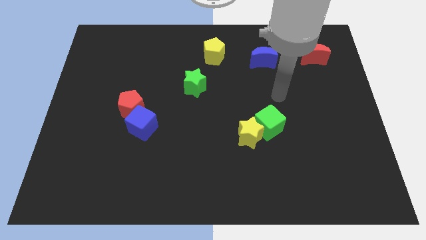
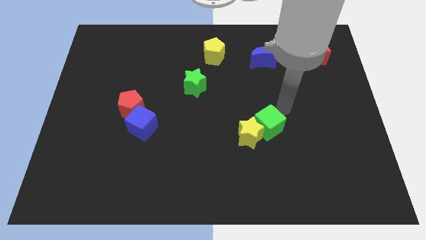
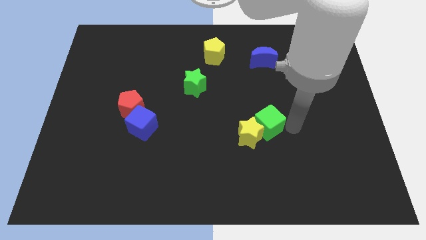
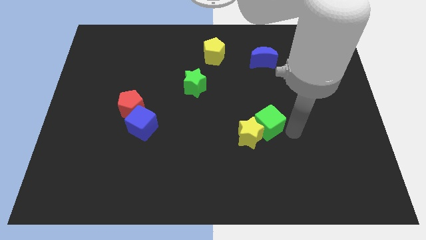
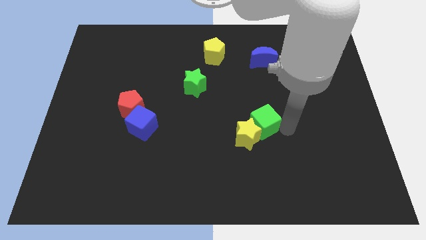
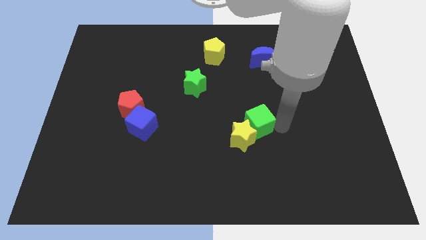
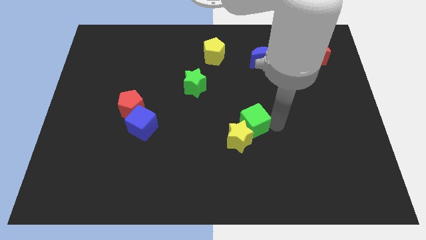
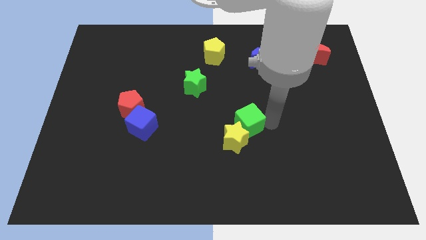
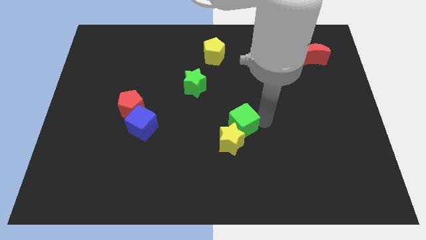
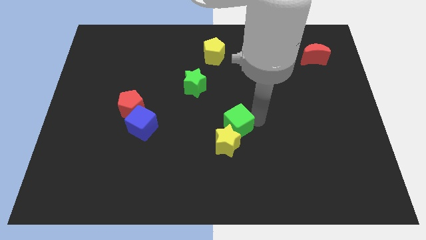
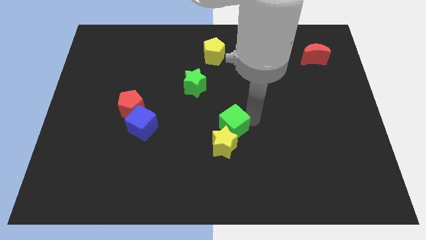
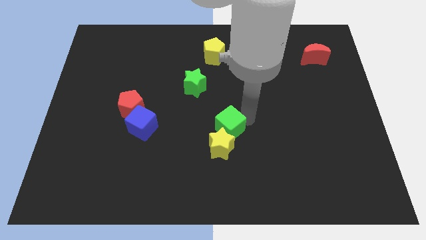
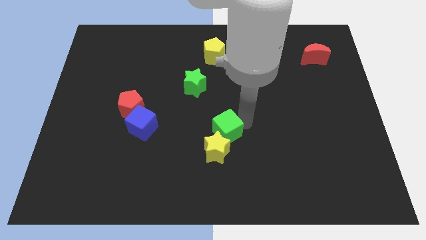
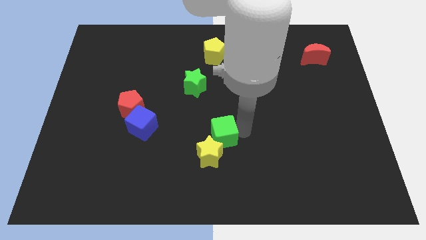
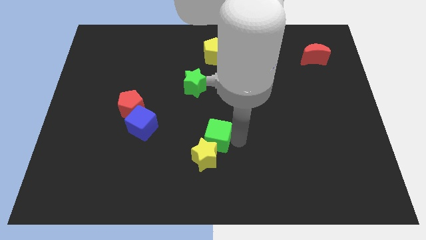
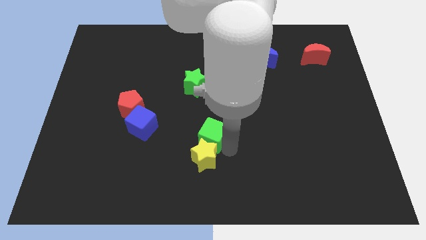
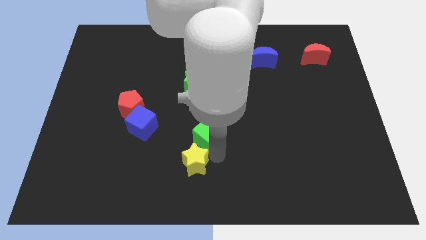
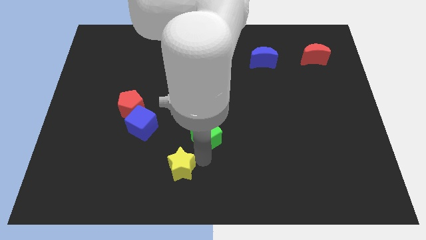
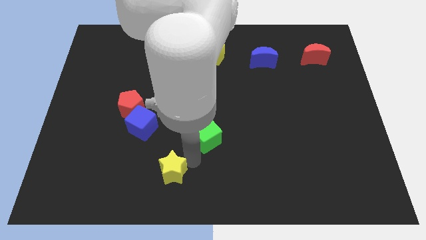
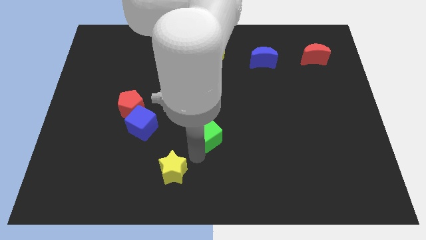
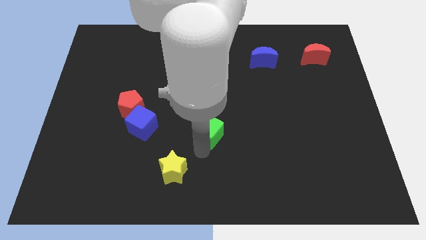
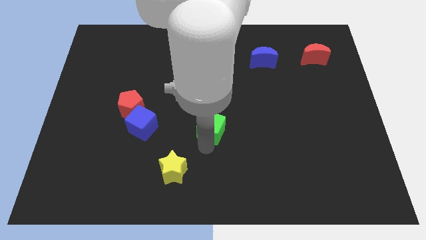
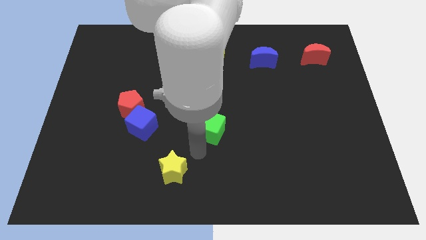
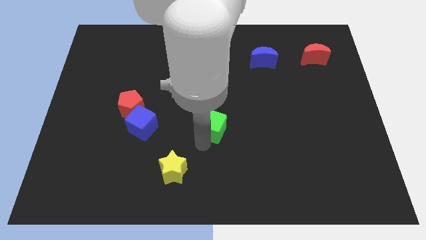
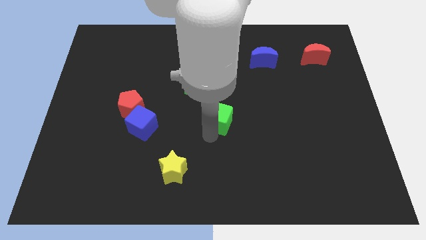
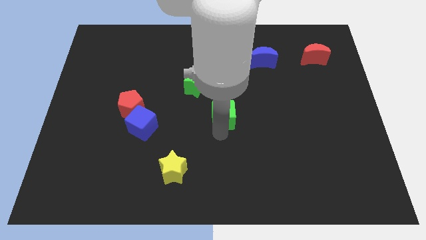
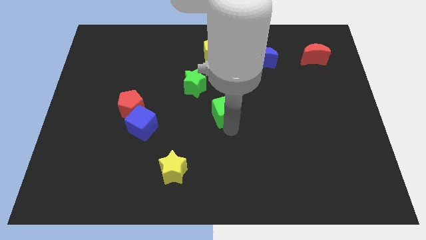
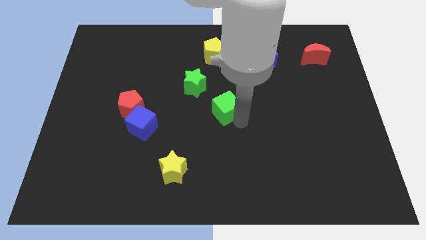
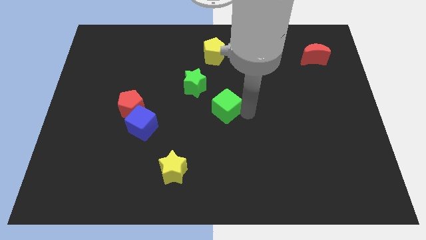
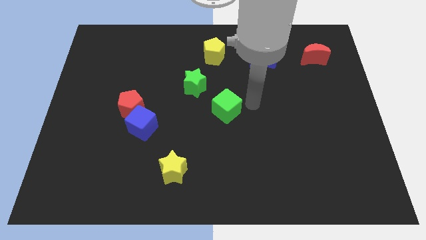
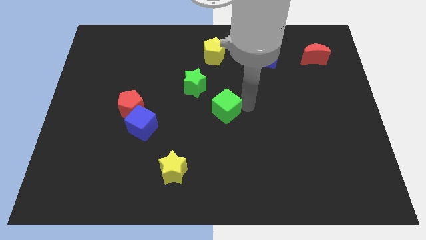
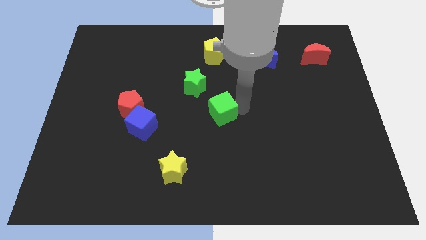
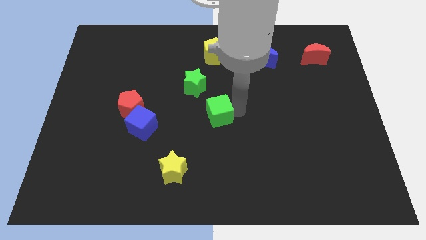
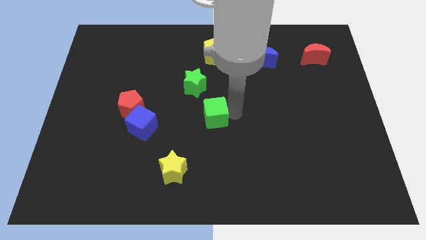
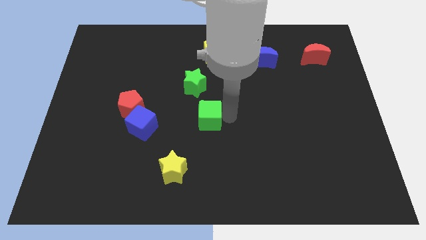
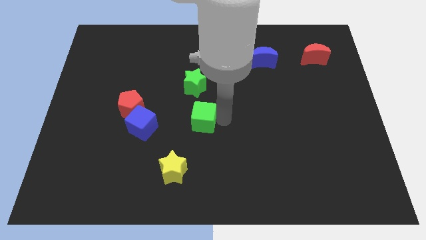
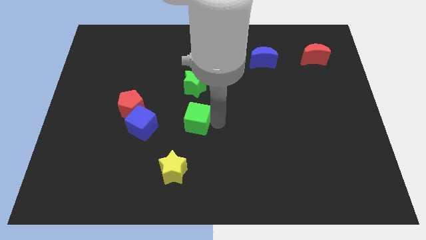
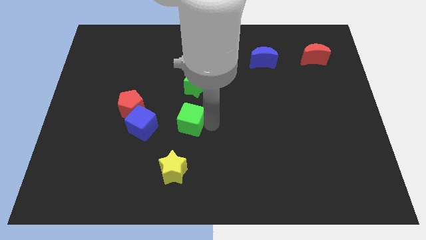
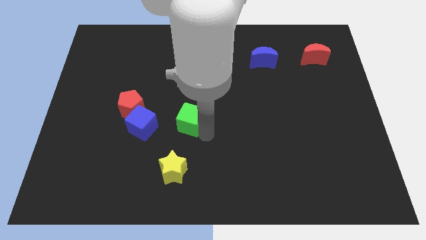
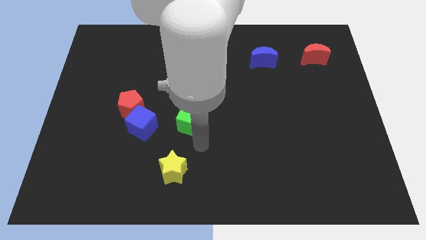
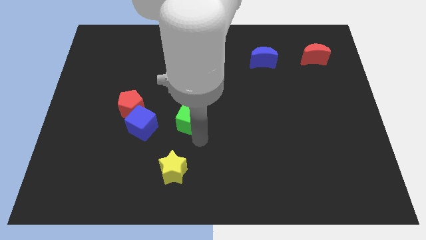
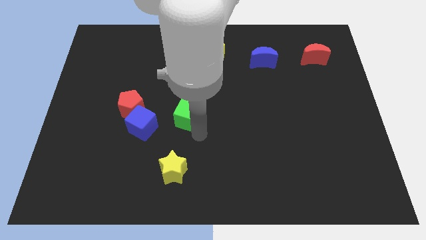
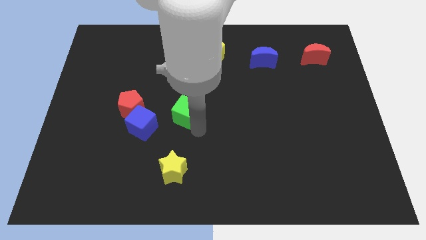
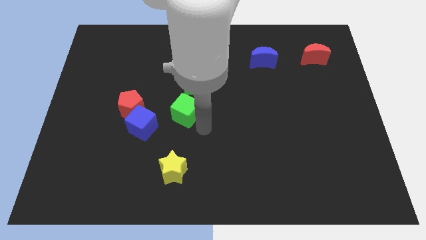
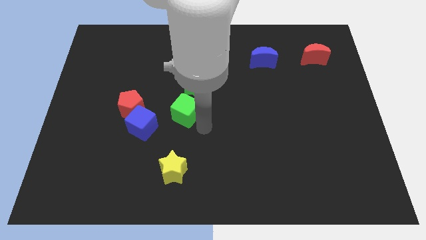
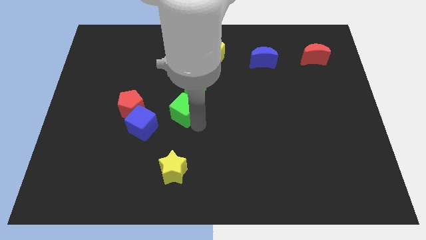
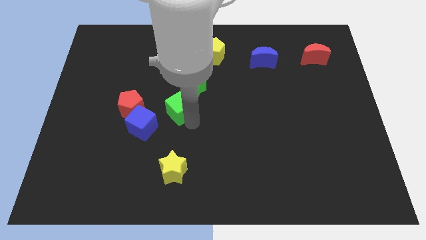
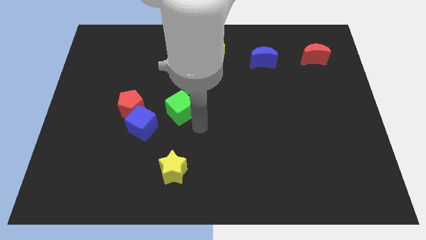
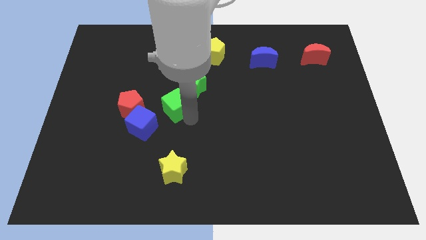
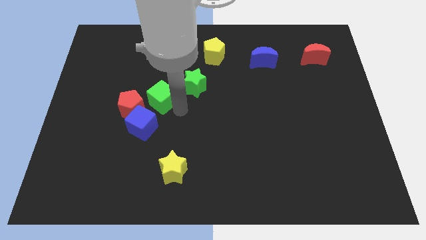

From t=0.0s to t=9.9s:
put the green cube to the top side of the blue cube

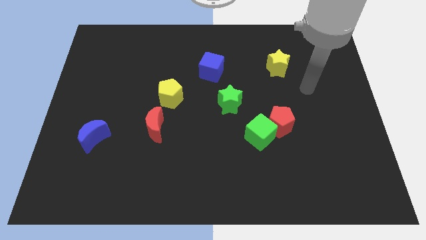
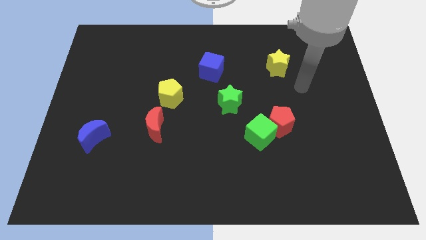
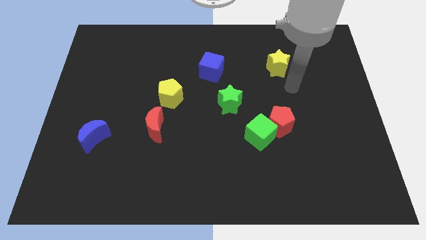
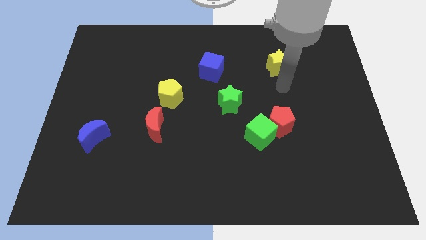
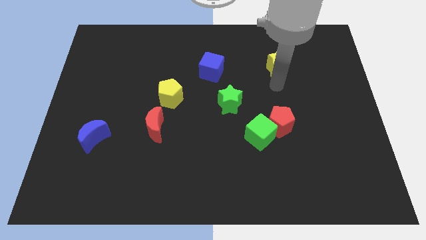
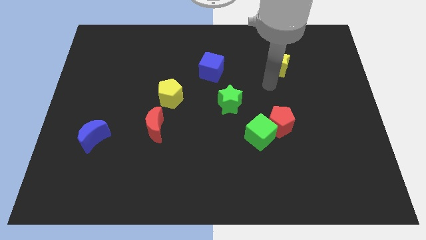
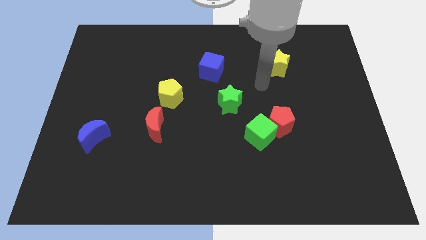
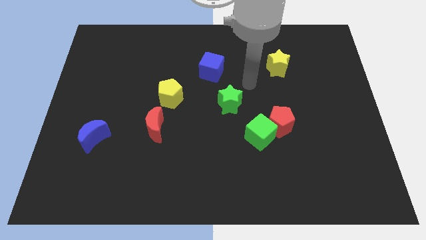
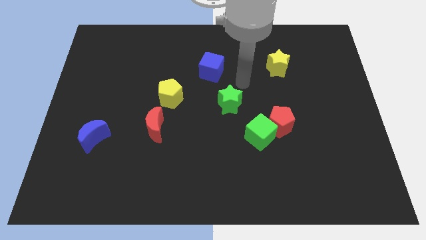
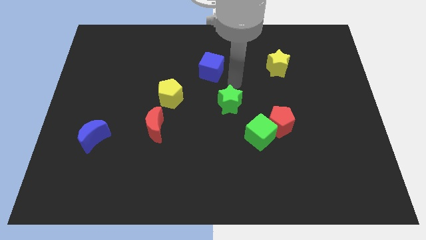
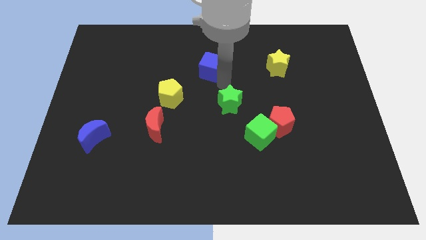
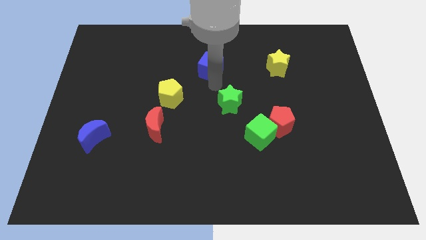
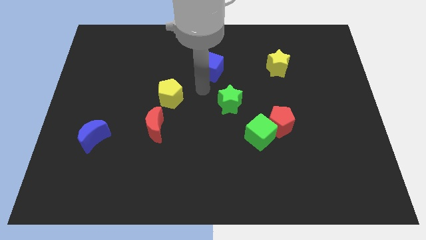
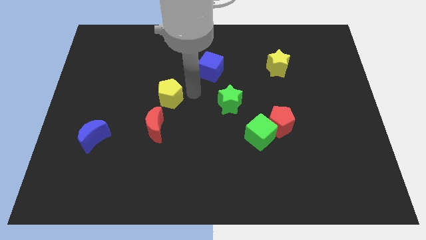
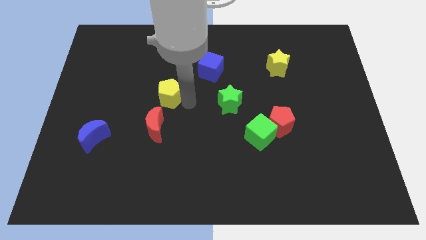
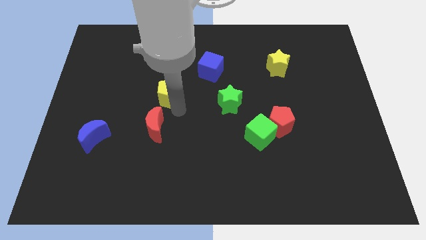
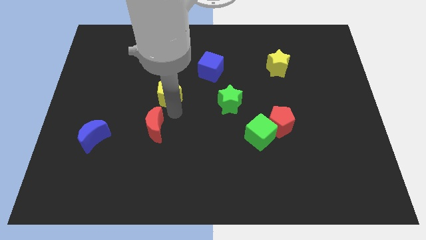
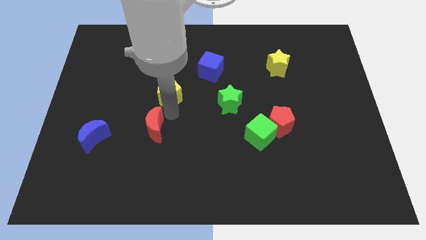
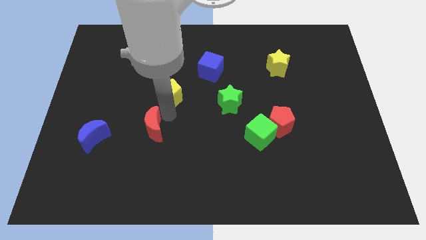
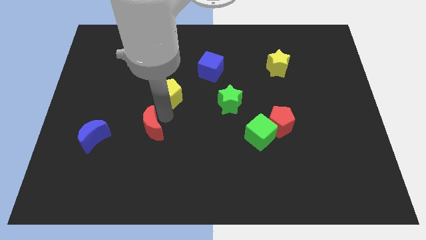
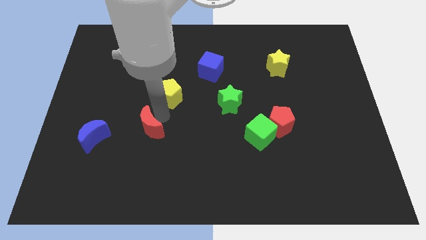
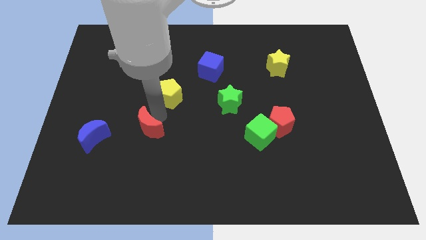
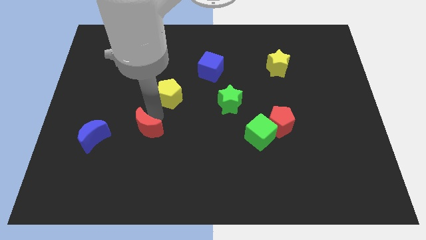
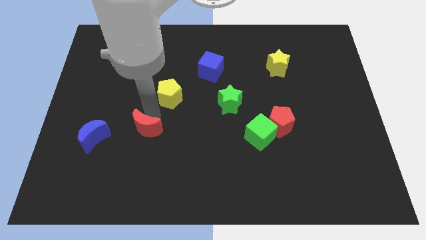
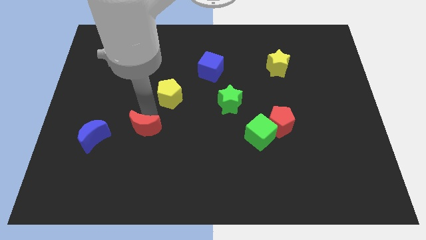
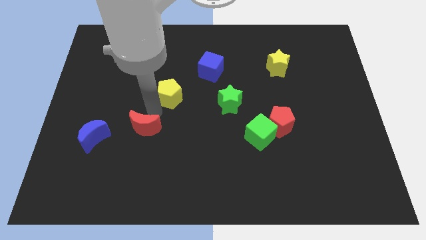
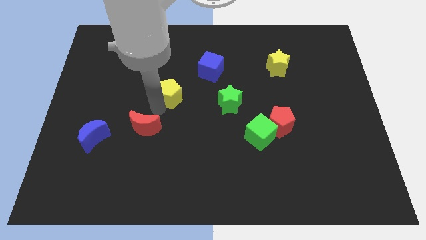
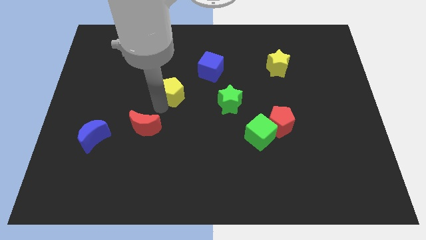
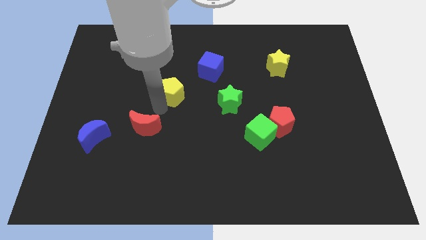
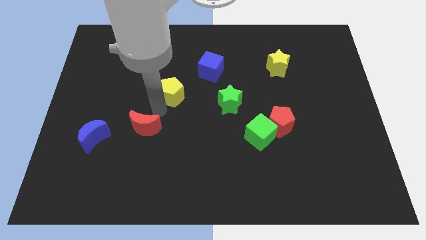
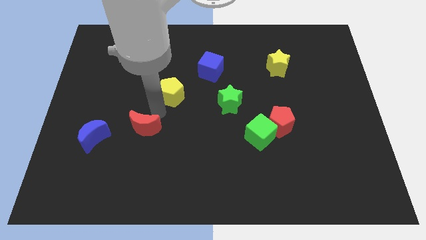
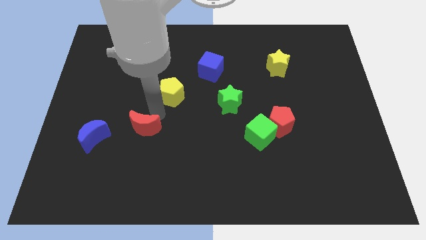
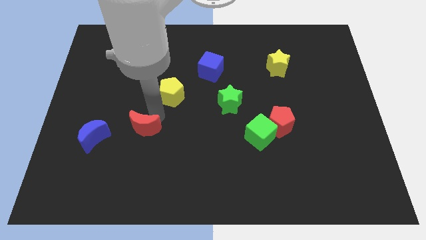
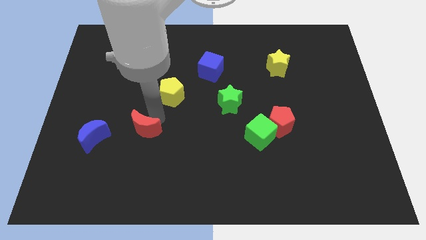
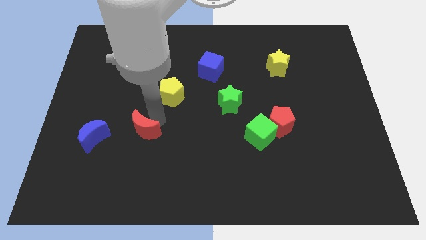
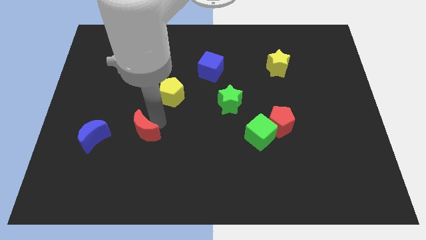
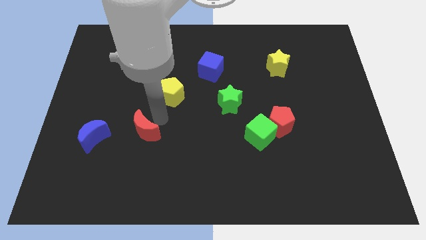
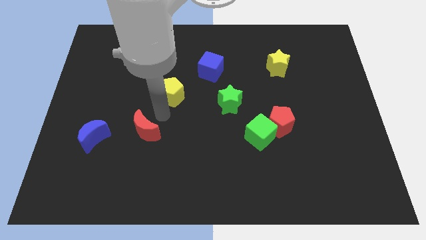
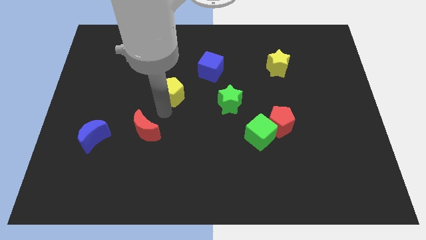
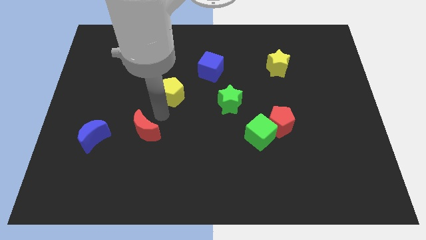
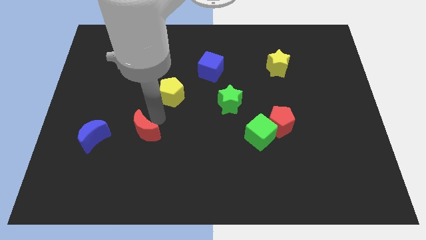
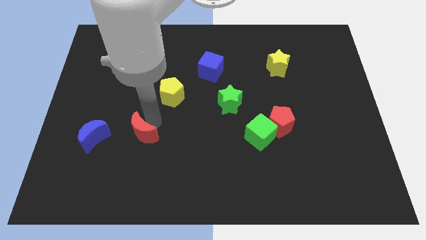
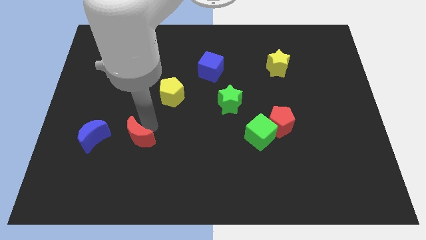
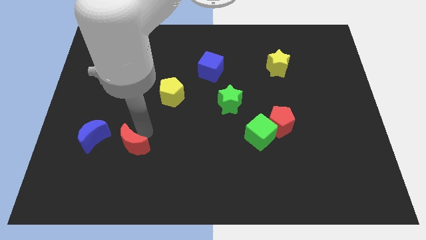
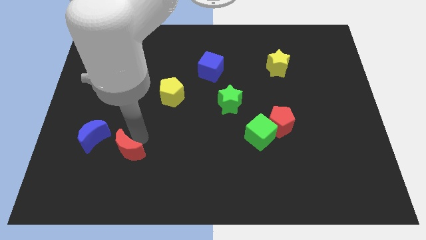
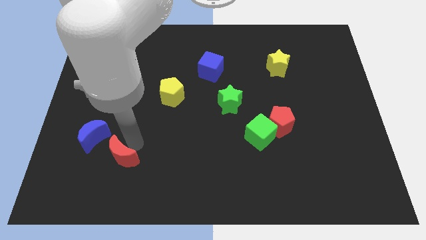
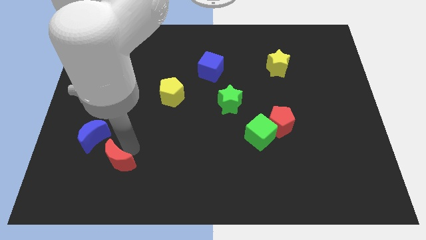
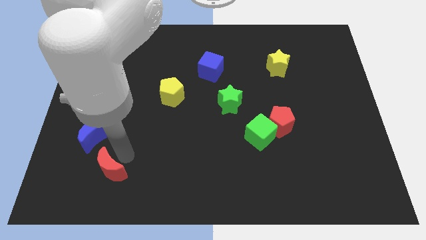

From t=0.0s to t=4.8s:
move the red moon to the bottom side of the blue moon
